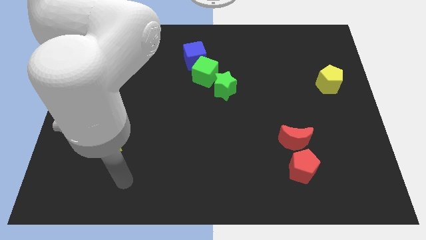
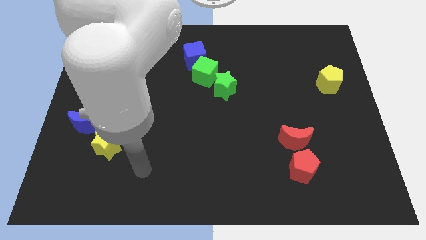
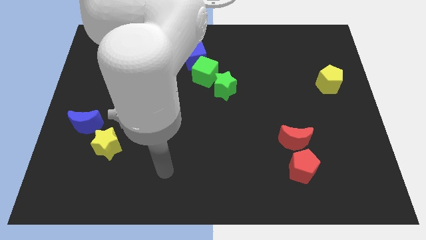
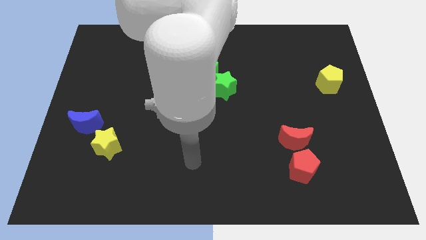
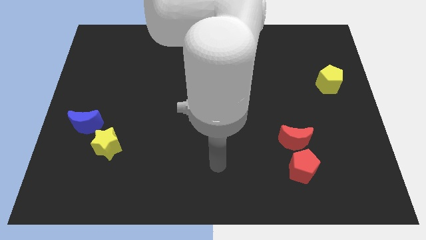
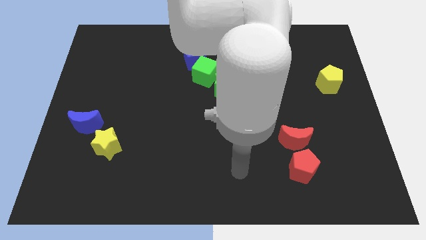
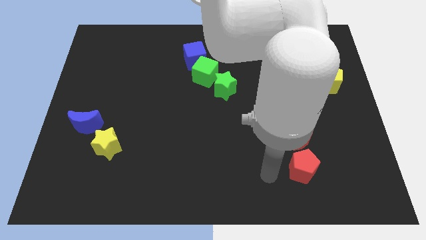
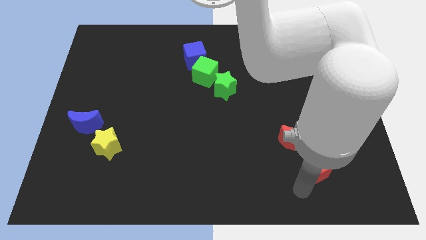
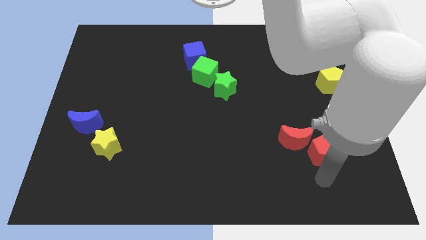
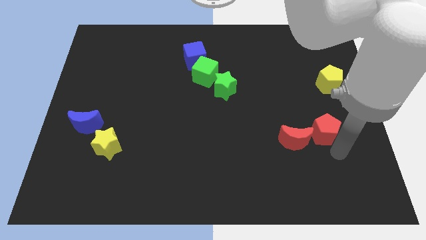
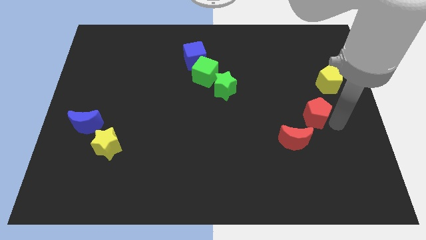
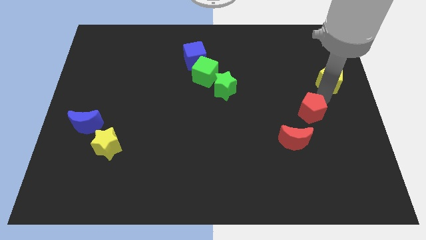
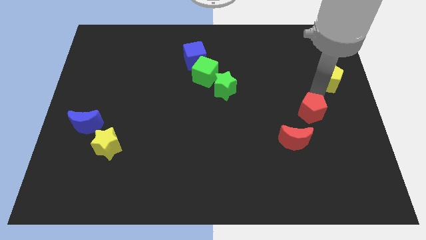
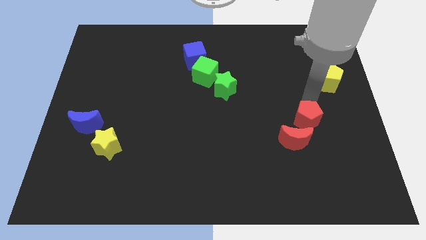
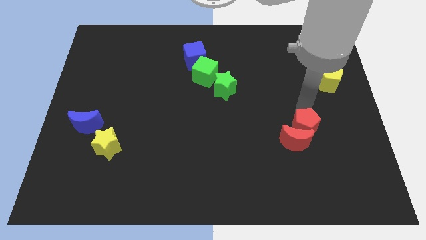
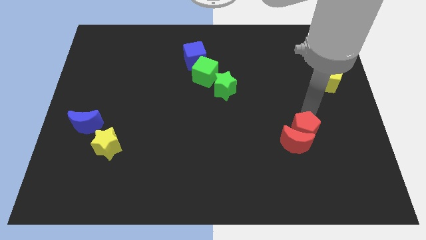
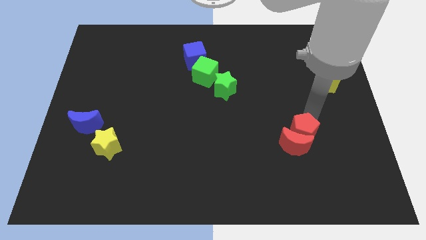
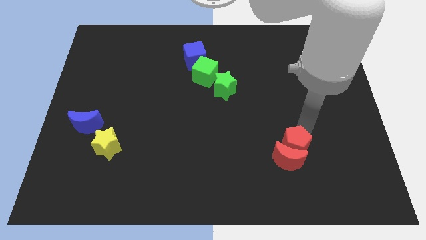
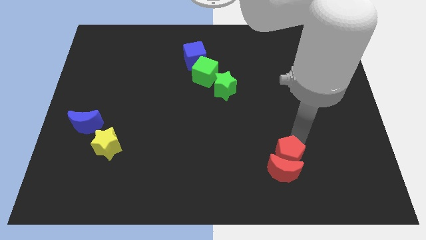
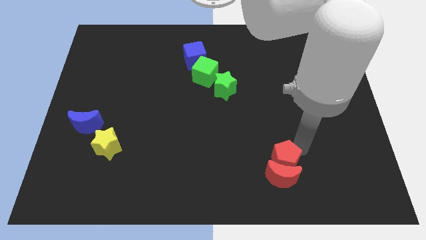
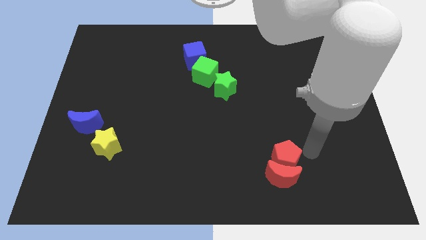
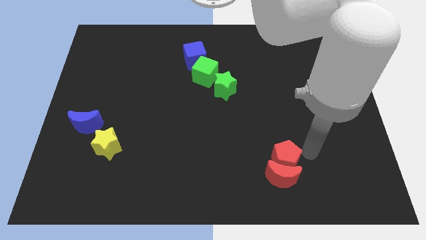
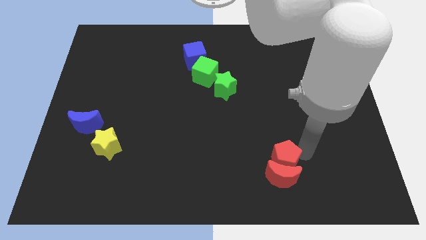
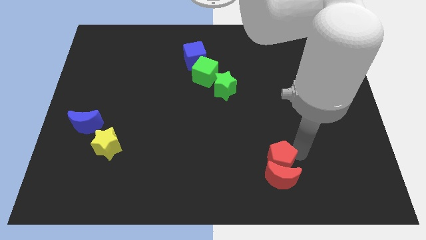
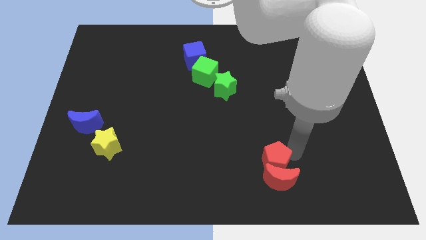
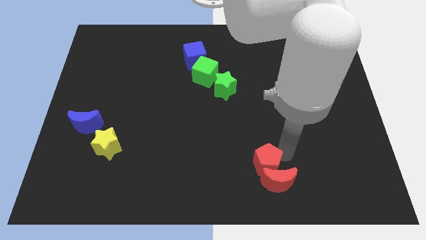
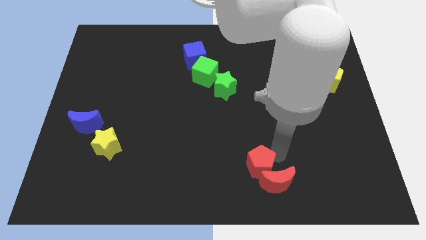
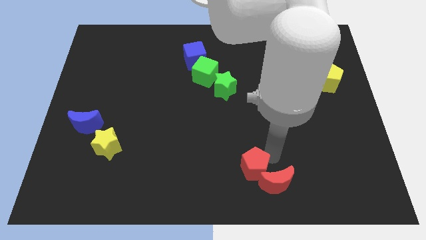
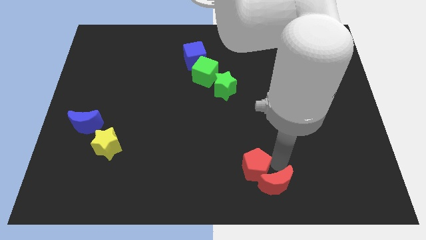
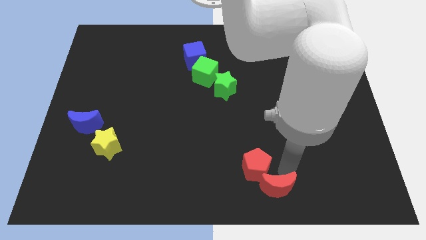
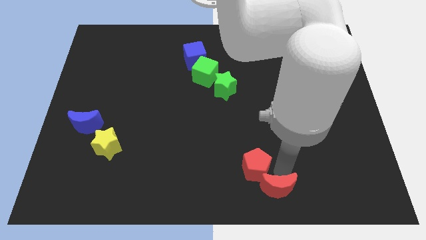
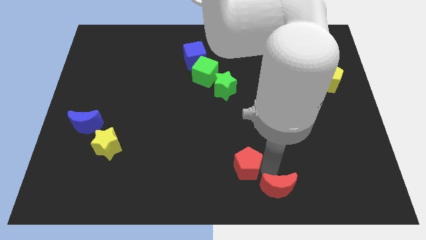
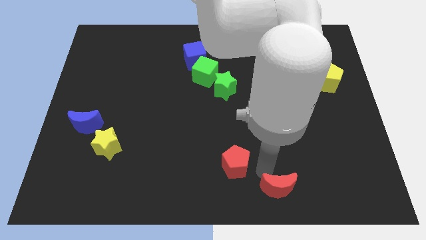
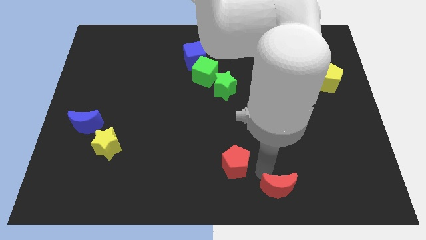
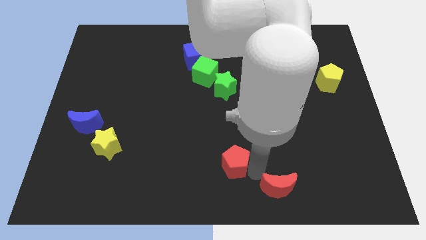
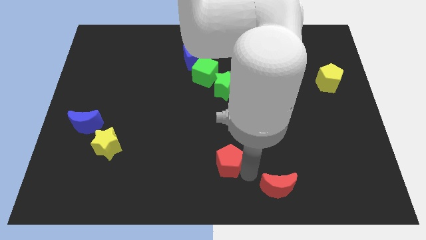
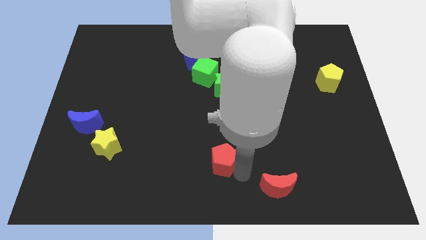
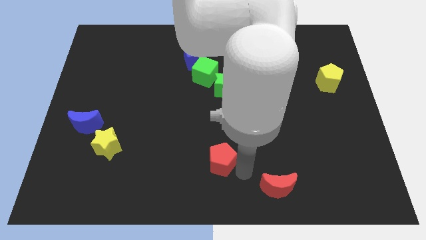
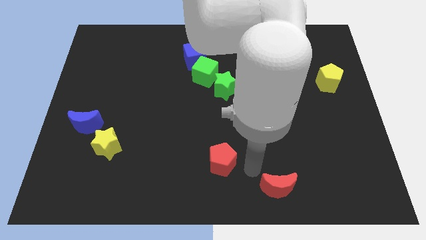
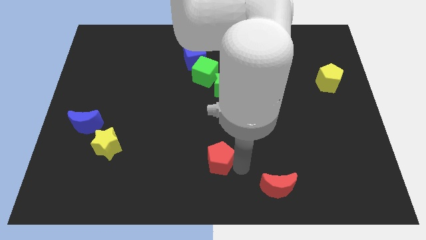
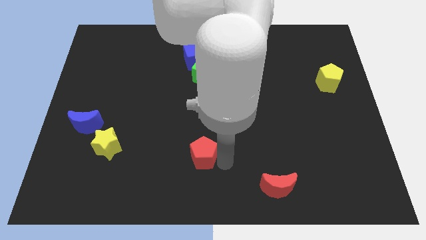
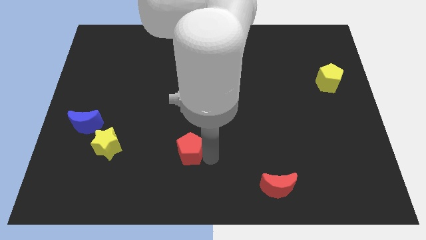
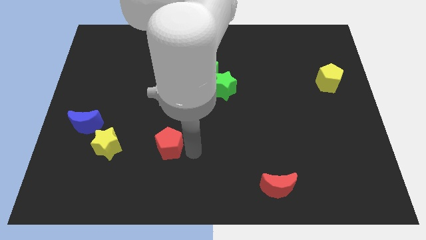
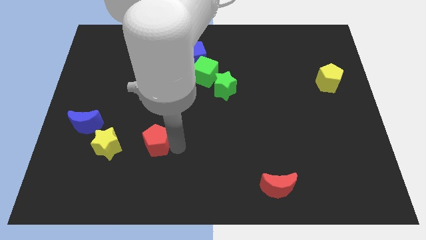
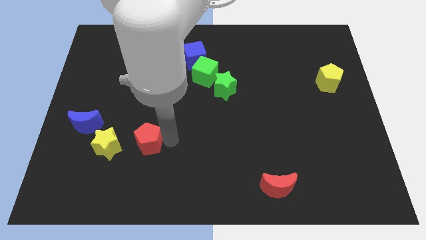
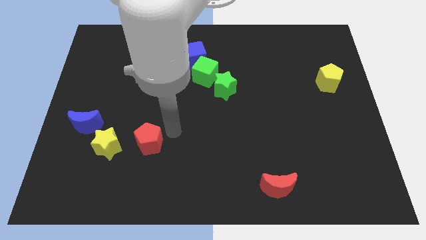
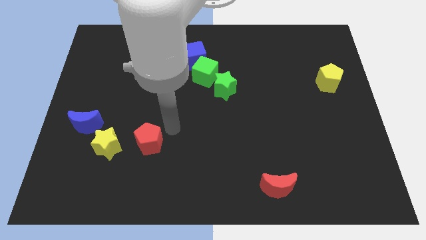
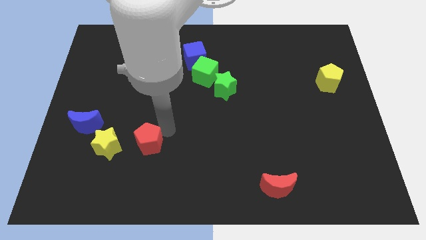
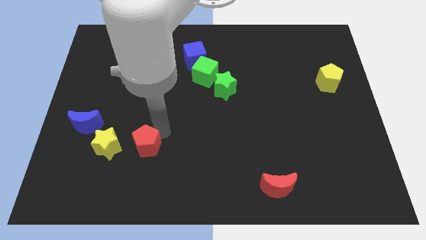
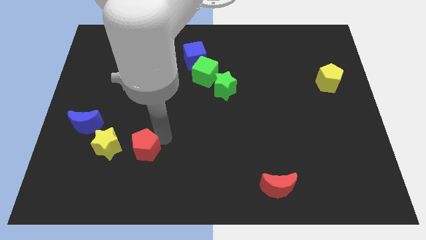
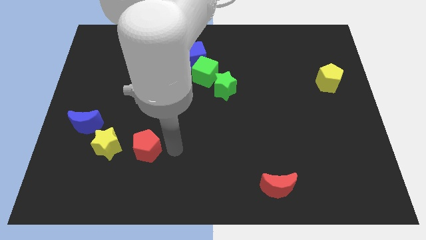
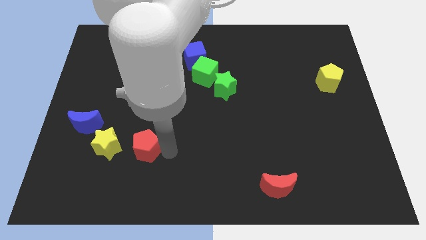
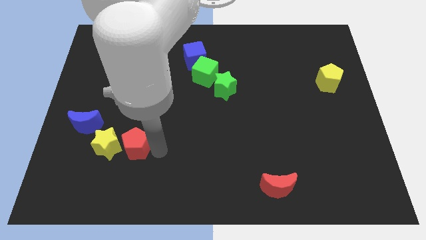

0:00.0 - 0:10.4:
move the red pentagon to the yellow star

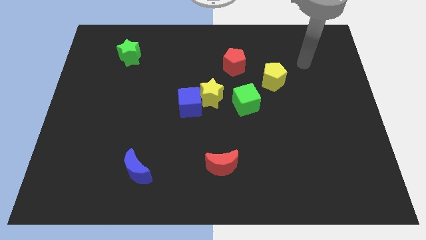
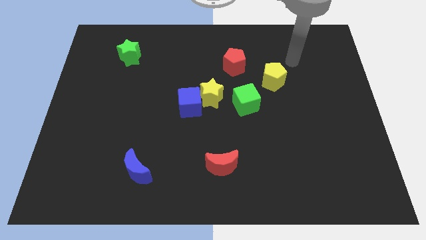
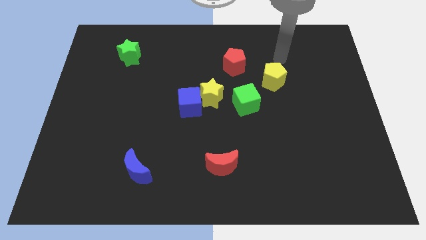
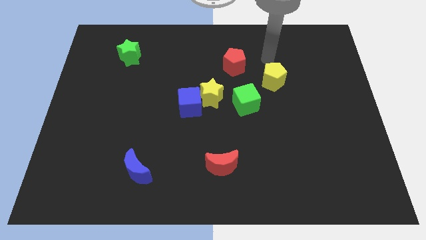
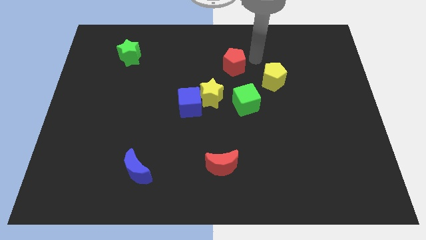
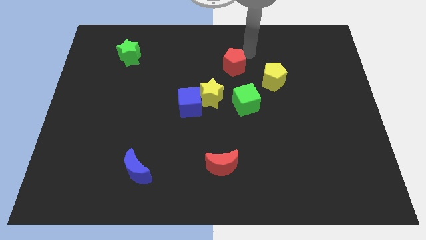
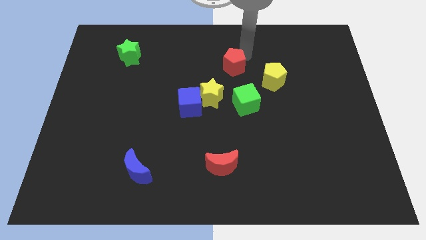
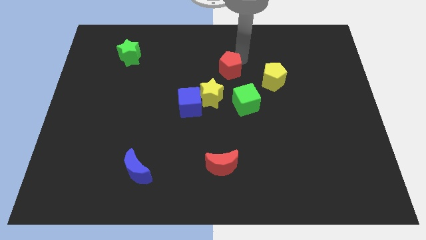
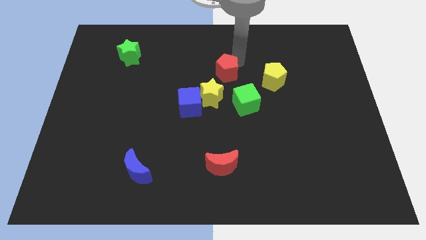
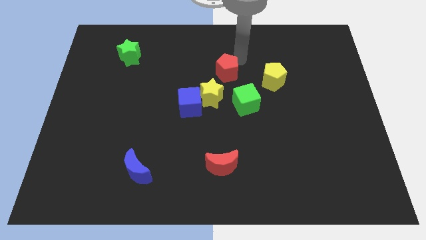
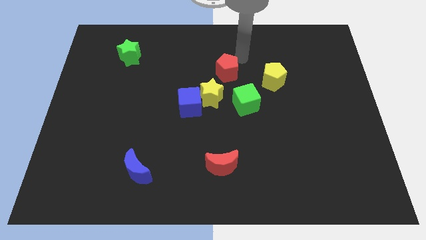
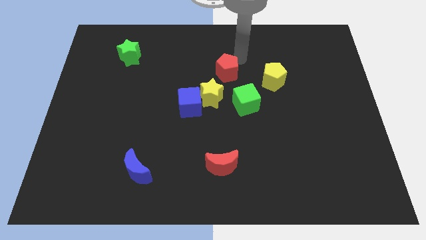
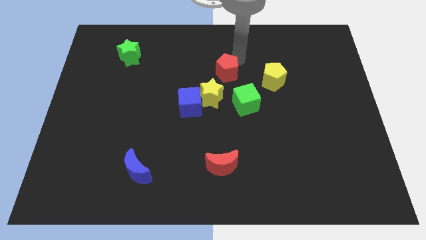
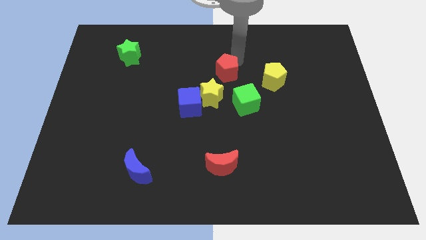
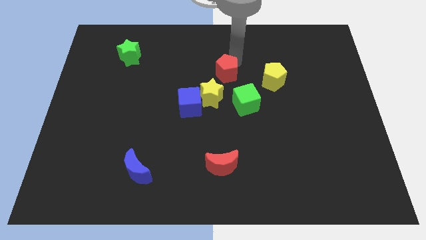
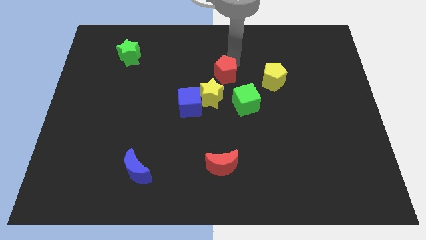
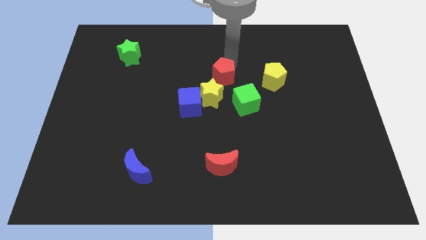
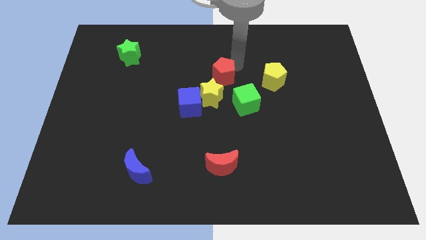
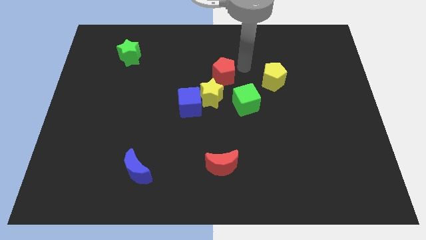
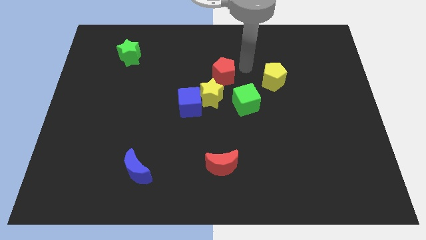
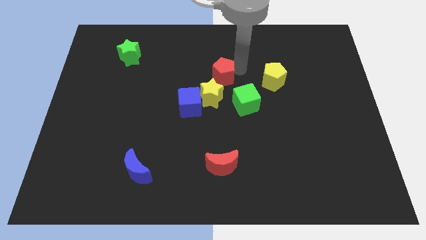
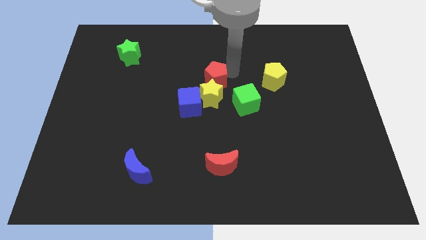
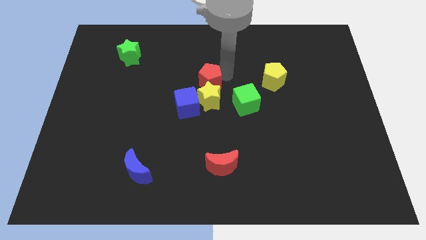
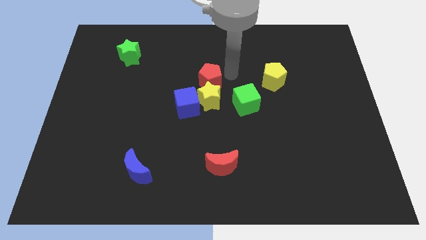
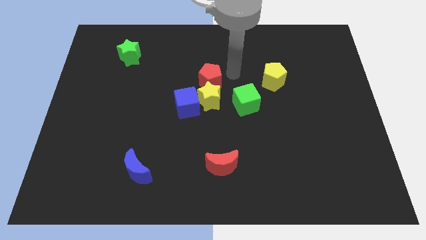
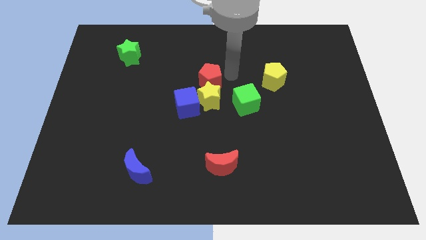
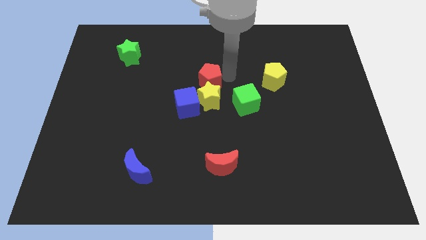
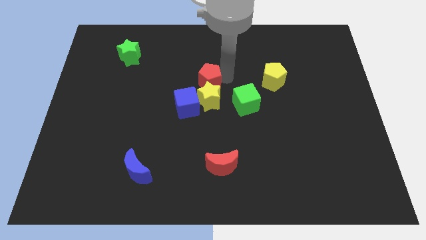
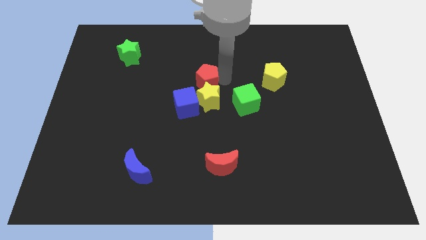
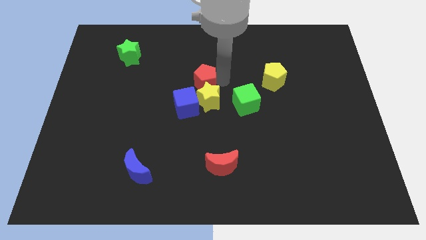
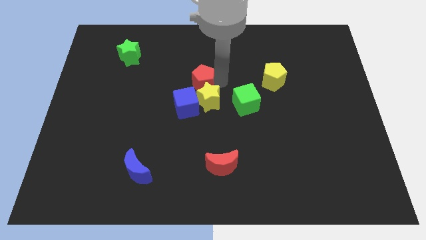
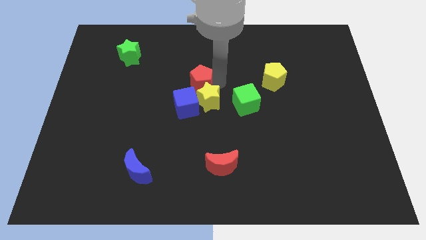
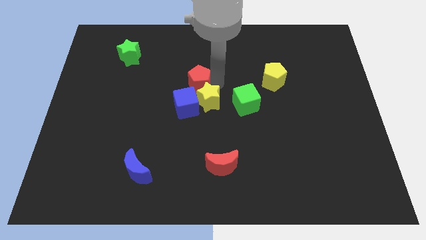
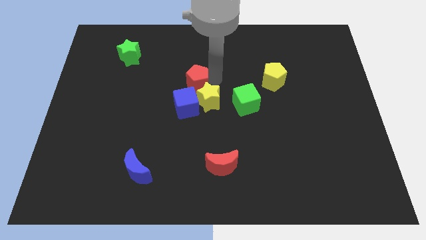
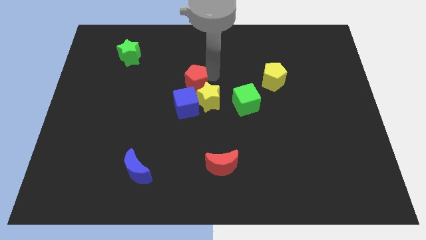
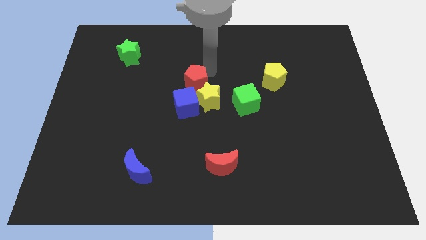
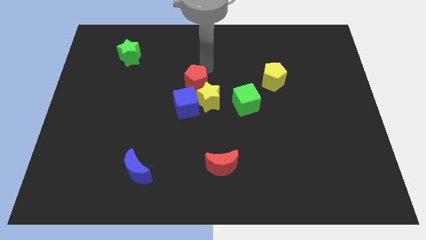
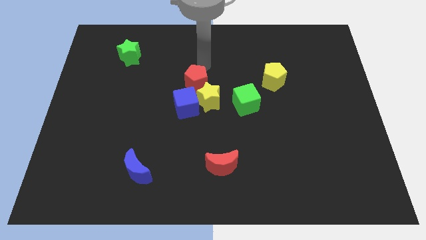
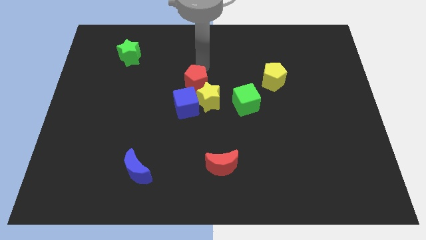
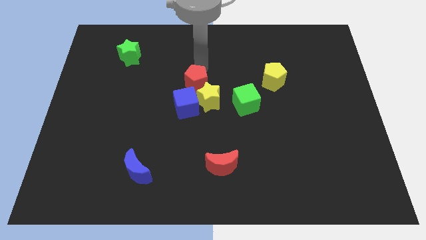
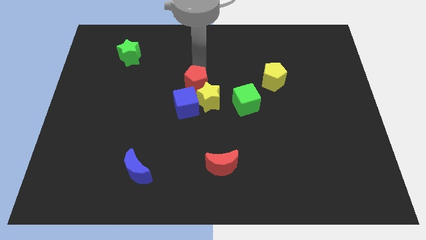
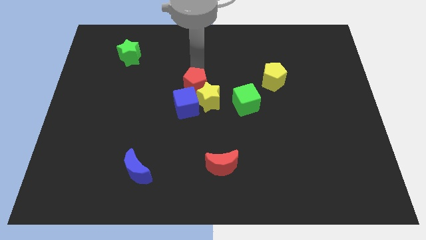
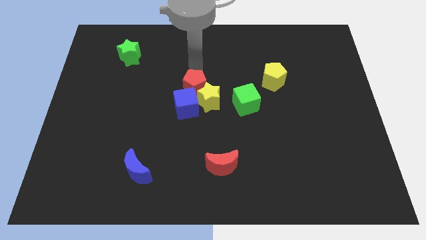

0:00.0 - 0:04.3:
slide the red pentagon close to the blue cube
